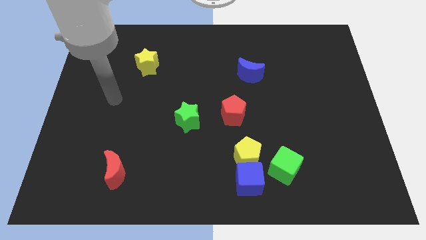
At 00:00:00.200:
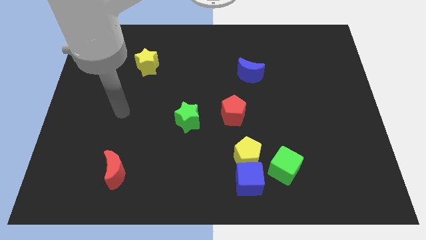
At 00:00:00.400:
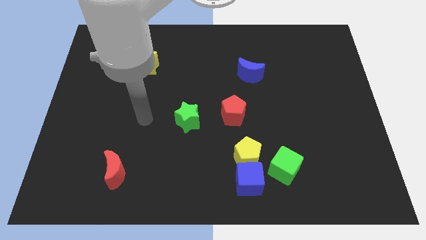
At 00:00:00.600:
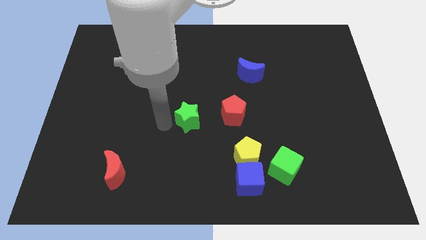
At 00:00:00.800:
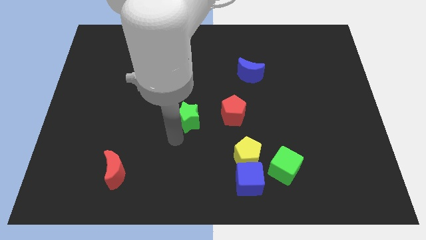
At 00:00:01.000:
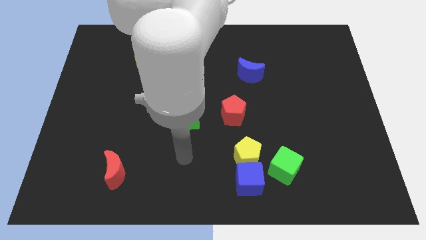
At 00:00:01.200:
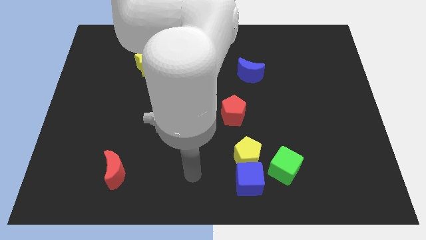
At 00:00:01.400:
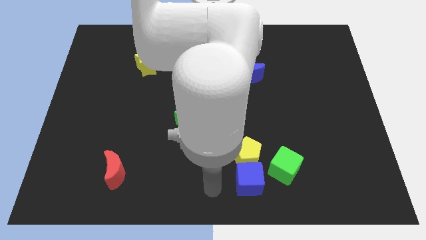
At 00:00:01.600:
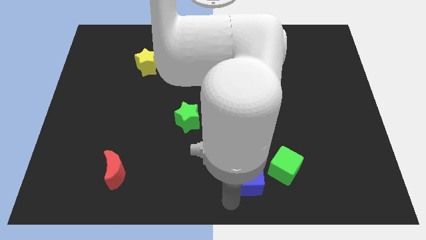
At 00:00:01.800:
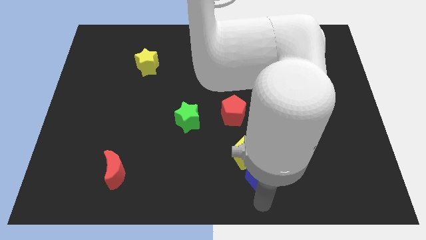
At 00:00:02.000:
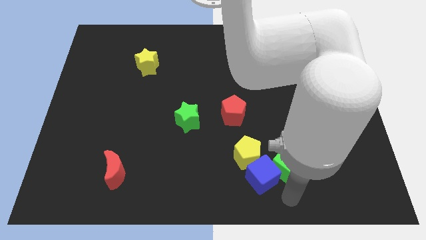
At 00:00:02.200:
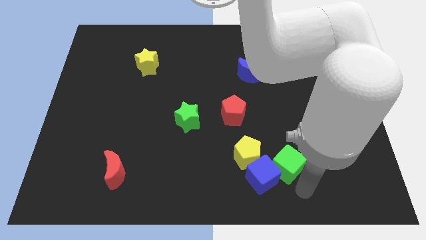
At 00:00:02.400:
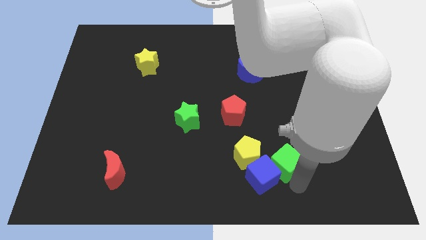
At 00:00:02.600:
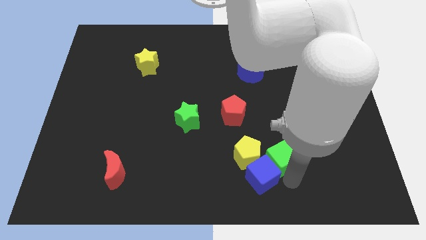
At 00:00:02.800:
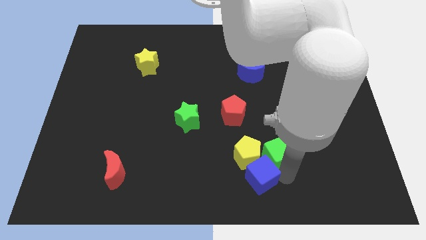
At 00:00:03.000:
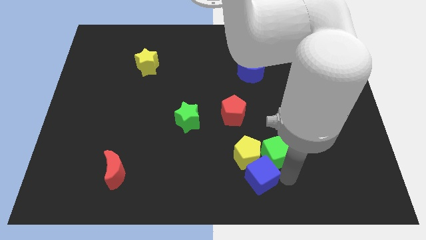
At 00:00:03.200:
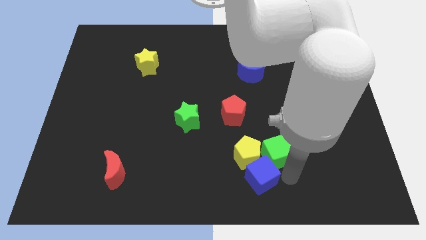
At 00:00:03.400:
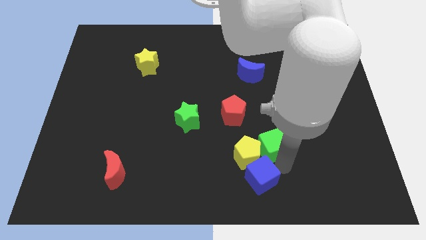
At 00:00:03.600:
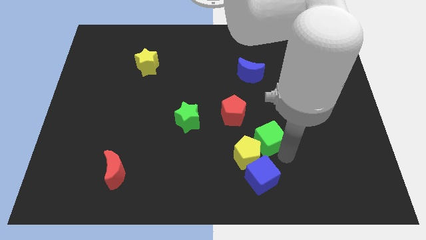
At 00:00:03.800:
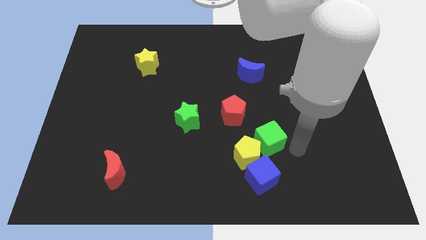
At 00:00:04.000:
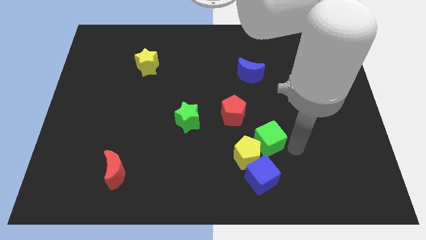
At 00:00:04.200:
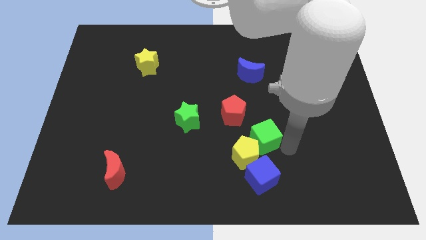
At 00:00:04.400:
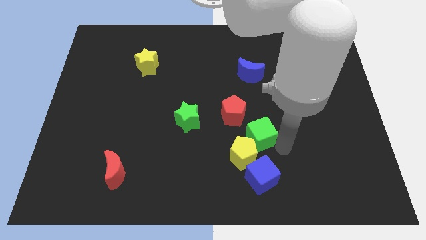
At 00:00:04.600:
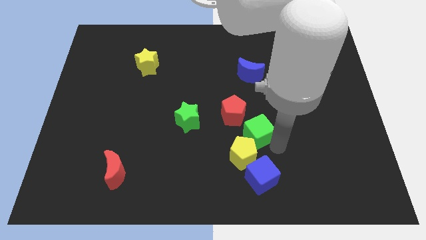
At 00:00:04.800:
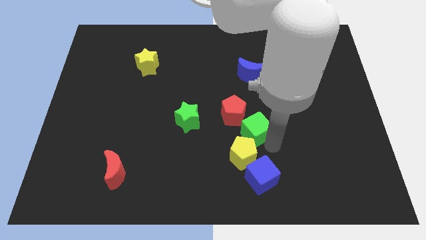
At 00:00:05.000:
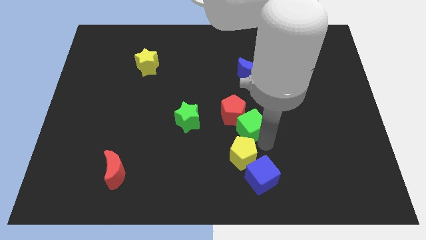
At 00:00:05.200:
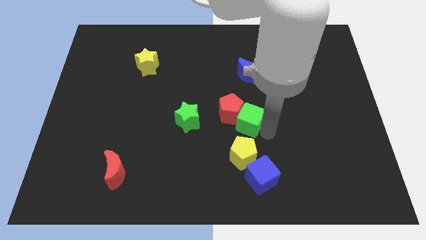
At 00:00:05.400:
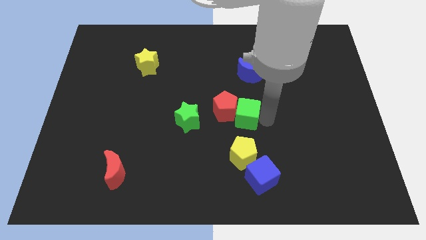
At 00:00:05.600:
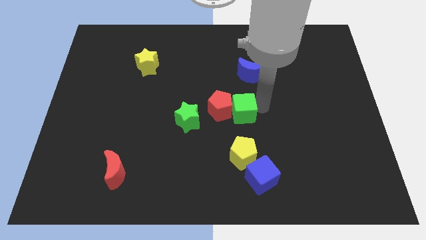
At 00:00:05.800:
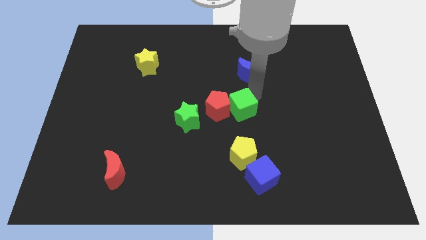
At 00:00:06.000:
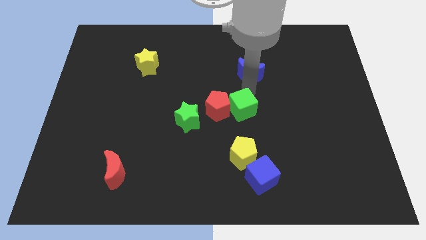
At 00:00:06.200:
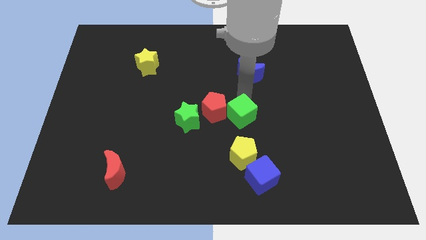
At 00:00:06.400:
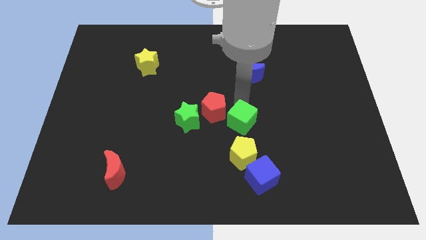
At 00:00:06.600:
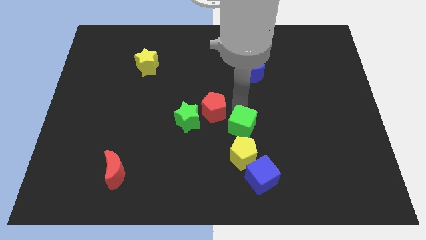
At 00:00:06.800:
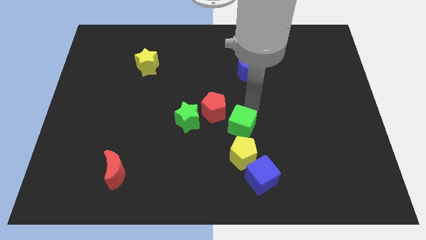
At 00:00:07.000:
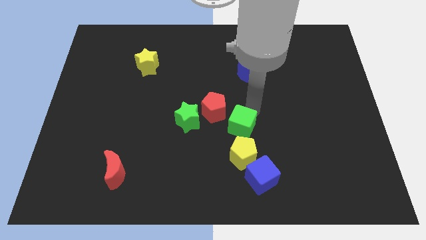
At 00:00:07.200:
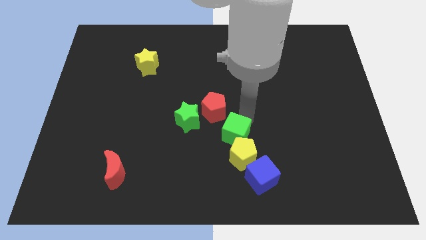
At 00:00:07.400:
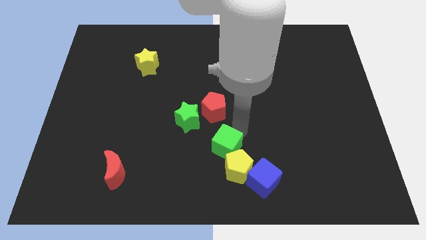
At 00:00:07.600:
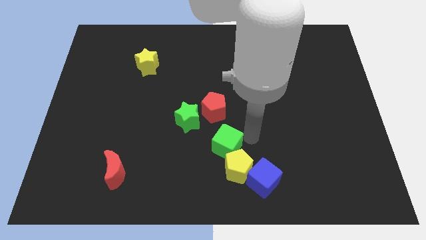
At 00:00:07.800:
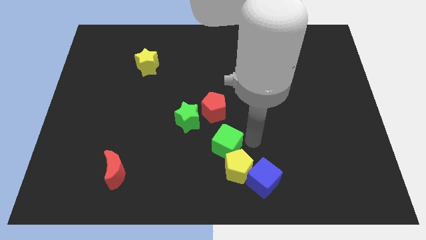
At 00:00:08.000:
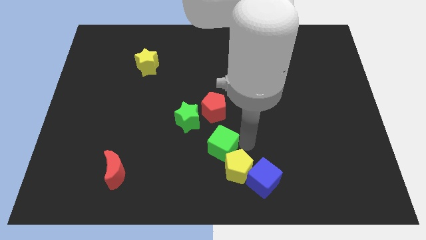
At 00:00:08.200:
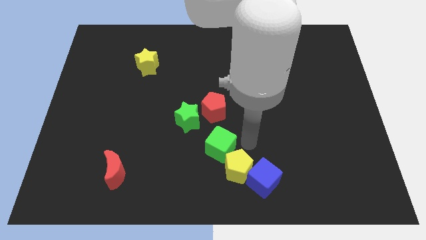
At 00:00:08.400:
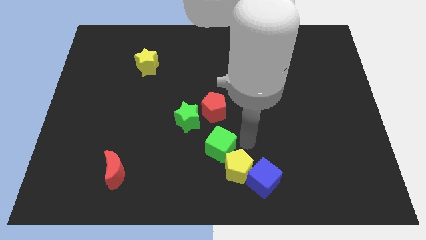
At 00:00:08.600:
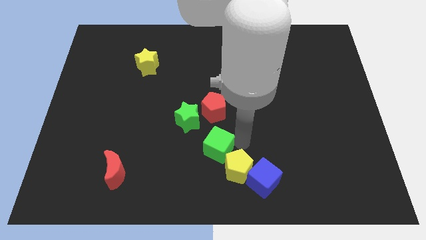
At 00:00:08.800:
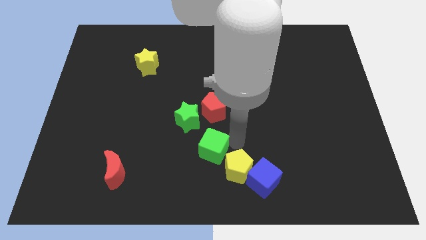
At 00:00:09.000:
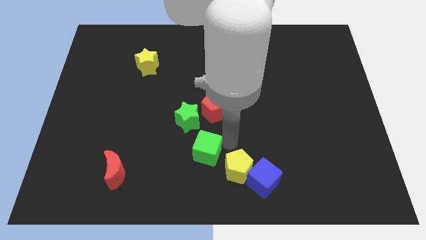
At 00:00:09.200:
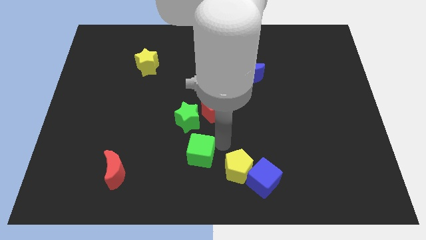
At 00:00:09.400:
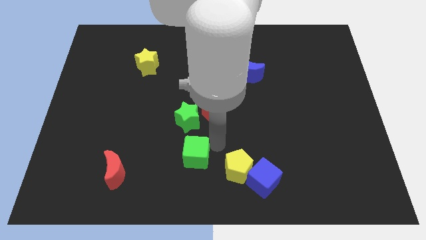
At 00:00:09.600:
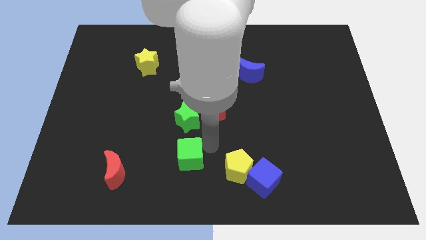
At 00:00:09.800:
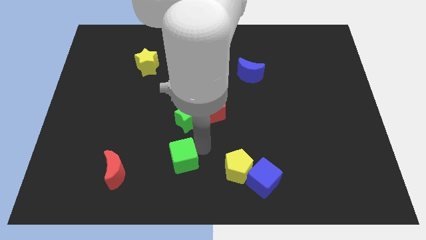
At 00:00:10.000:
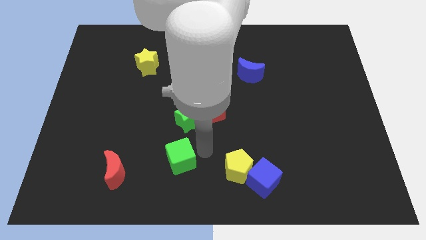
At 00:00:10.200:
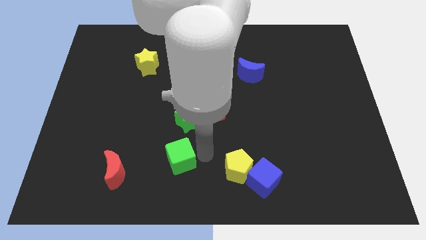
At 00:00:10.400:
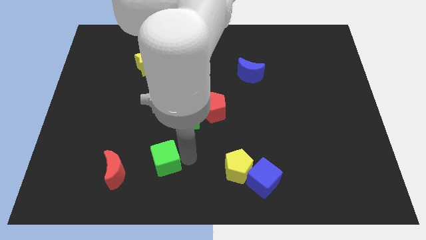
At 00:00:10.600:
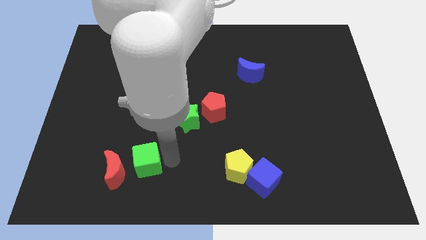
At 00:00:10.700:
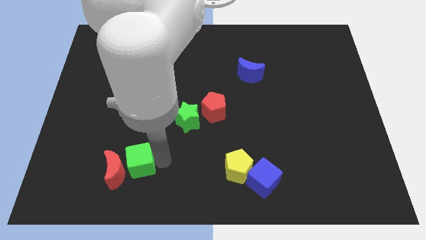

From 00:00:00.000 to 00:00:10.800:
move the green cube towards the red moon

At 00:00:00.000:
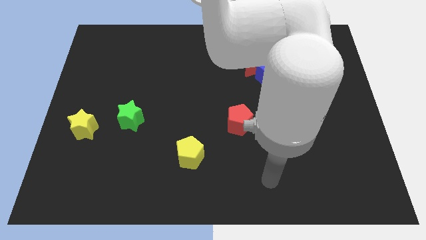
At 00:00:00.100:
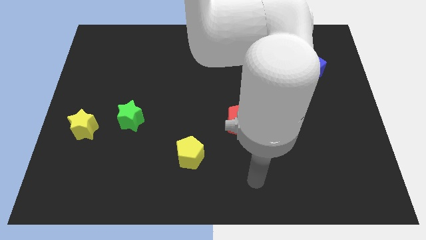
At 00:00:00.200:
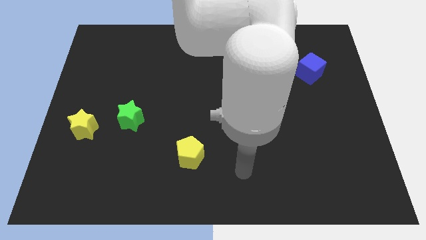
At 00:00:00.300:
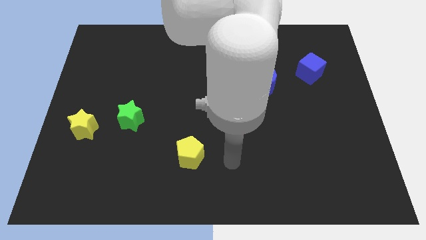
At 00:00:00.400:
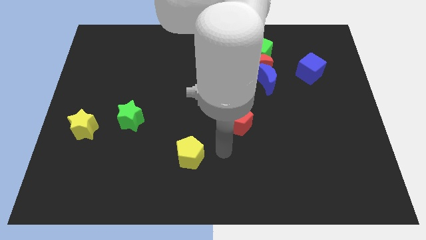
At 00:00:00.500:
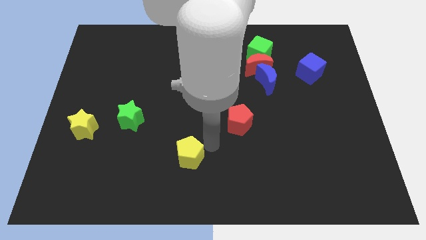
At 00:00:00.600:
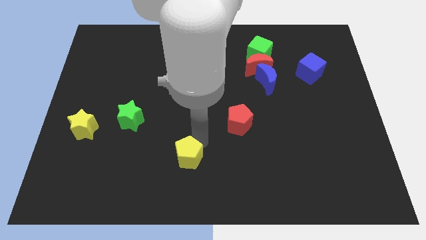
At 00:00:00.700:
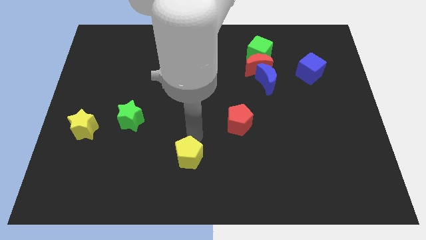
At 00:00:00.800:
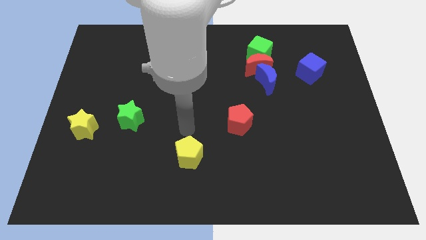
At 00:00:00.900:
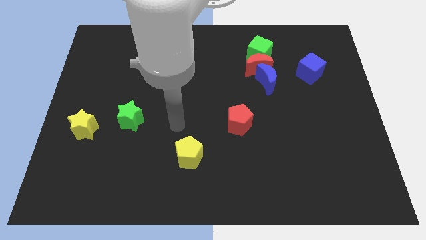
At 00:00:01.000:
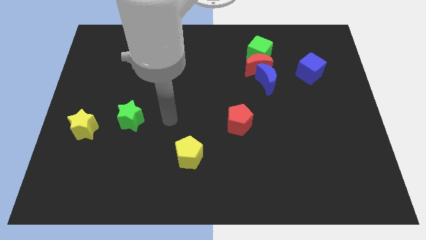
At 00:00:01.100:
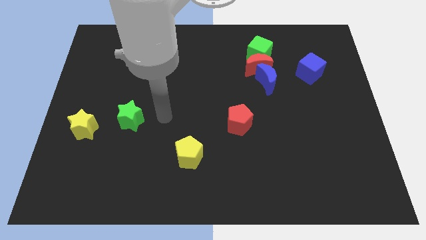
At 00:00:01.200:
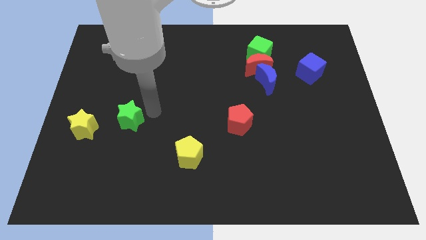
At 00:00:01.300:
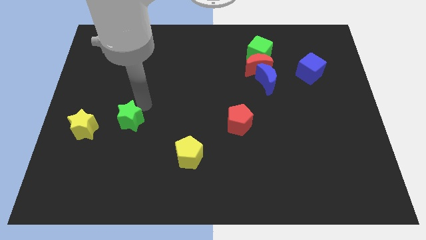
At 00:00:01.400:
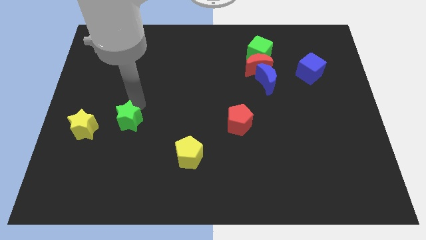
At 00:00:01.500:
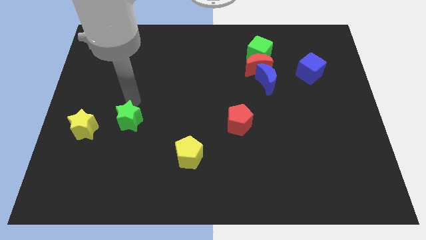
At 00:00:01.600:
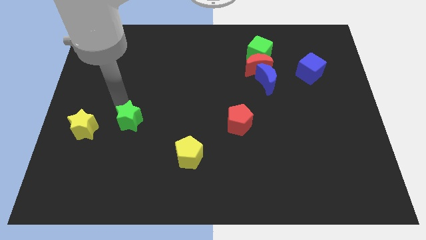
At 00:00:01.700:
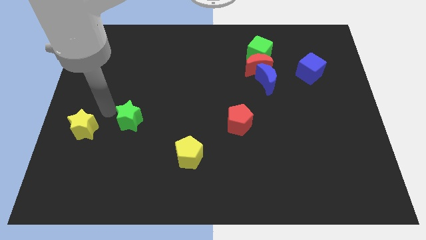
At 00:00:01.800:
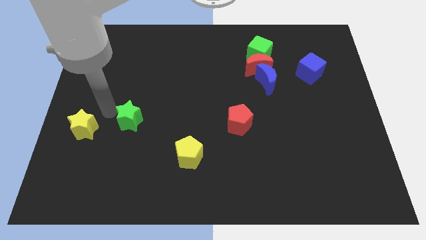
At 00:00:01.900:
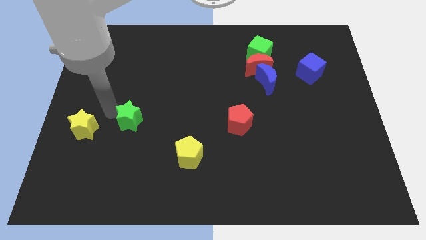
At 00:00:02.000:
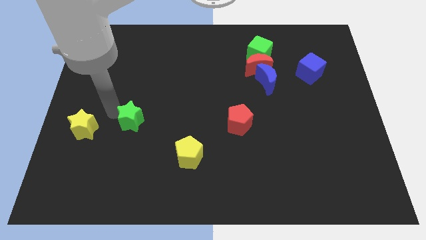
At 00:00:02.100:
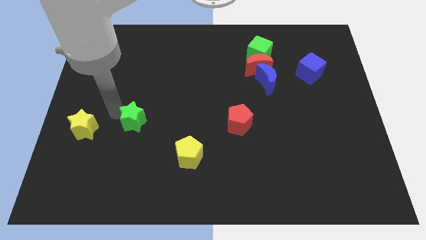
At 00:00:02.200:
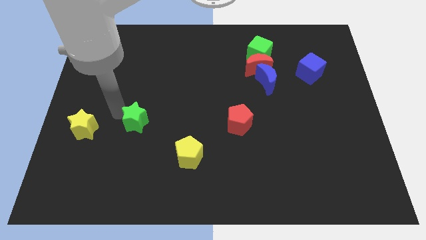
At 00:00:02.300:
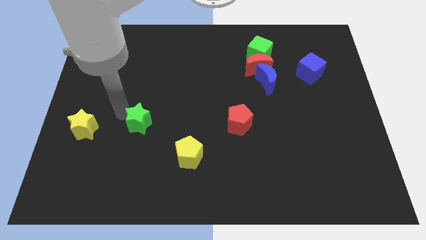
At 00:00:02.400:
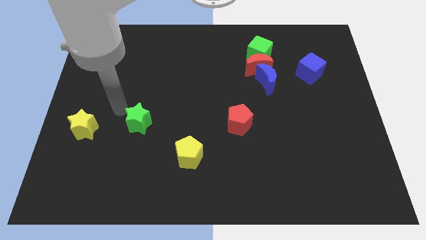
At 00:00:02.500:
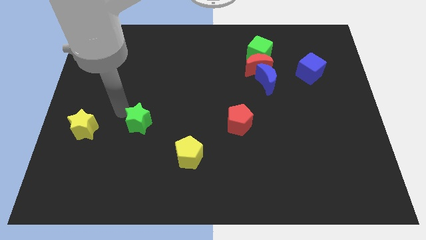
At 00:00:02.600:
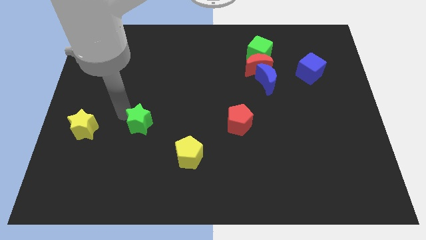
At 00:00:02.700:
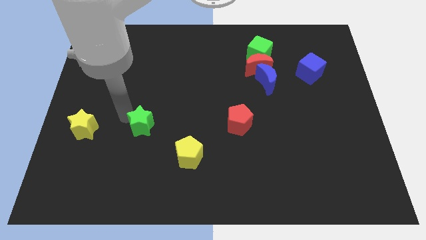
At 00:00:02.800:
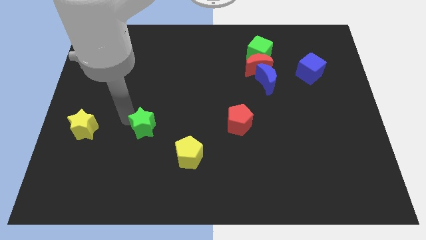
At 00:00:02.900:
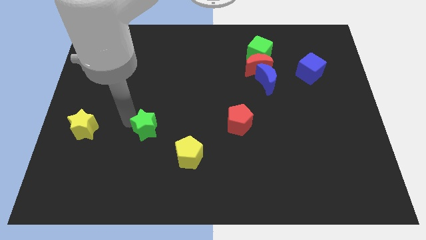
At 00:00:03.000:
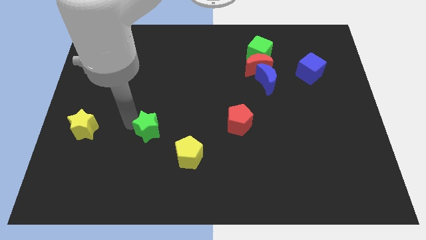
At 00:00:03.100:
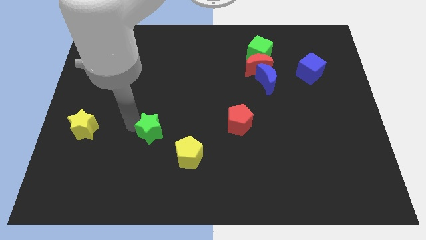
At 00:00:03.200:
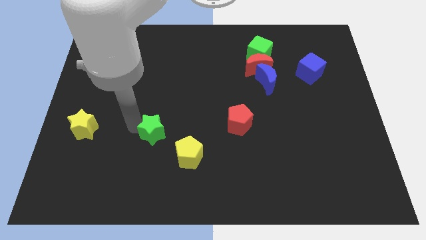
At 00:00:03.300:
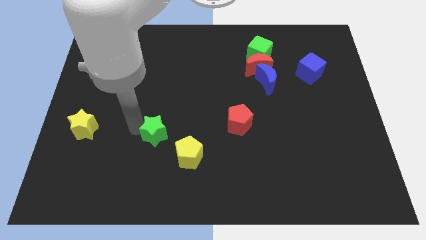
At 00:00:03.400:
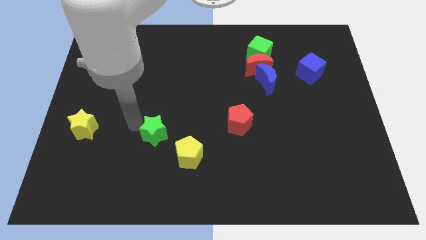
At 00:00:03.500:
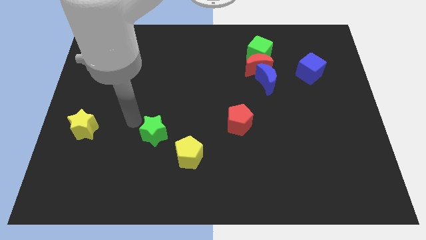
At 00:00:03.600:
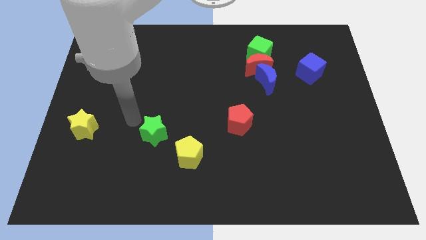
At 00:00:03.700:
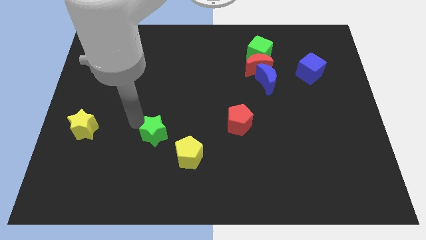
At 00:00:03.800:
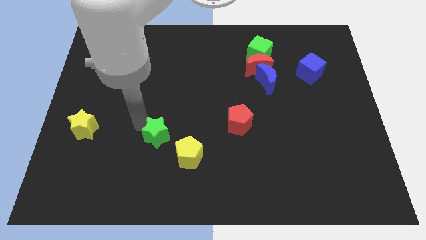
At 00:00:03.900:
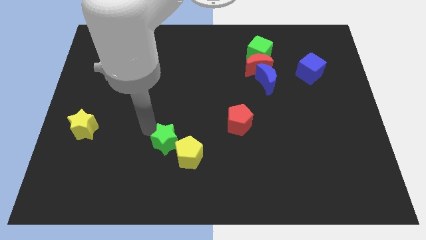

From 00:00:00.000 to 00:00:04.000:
push the green star close to the yellow pentagon
